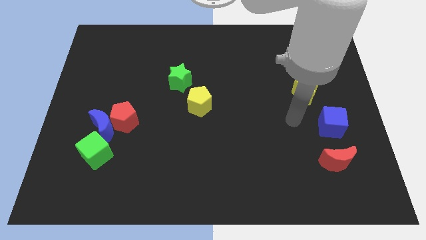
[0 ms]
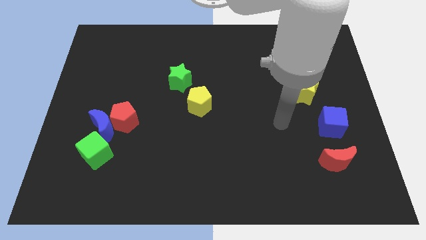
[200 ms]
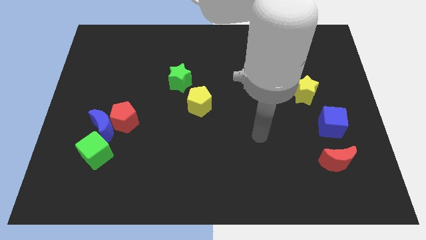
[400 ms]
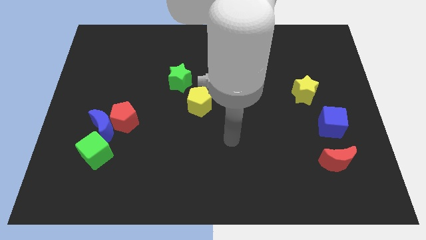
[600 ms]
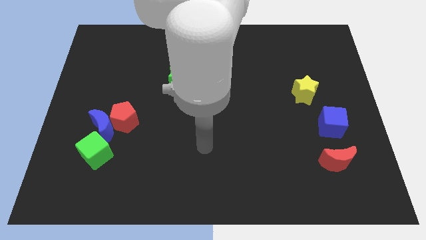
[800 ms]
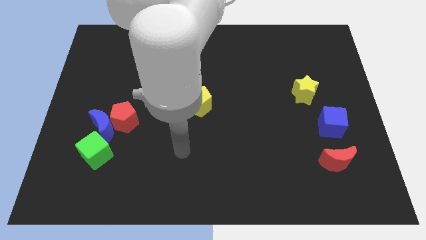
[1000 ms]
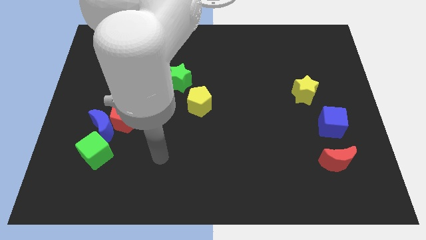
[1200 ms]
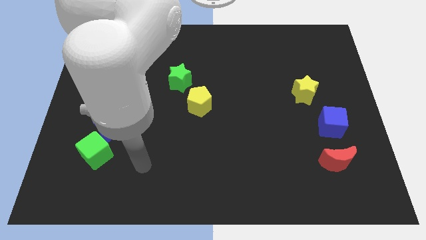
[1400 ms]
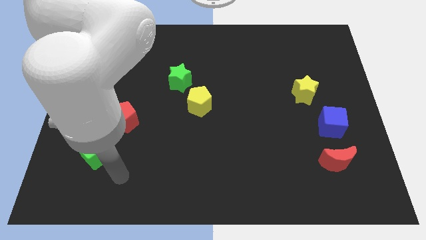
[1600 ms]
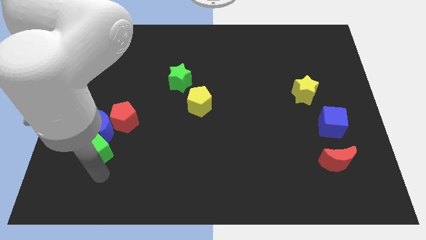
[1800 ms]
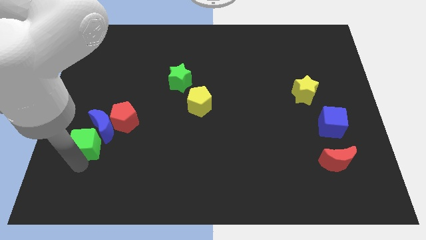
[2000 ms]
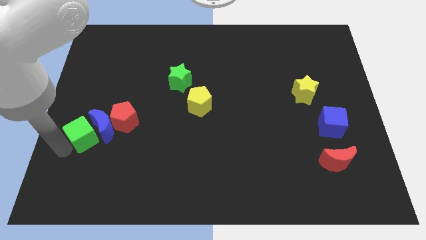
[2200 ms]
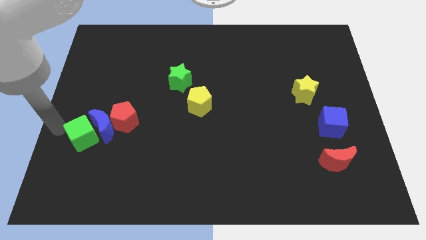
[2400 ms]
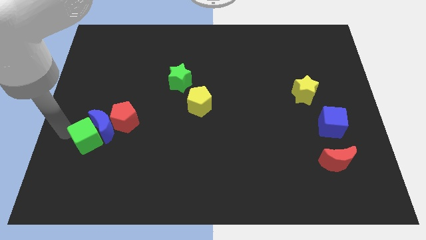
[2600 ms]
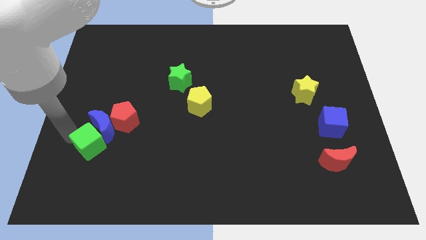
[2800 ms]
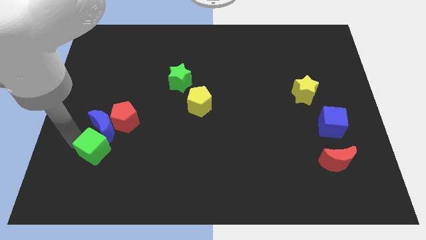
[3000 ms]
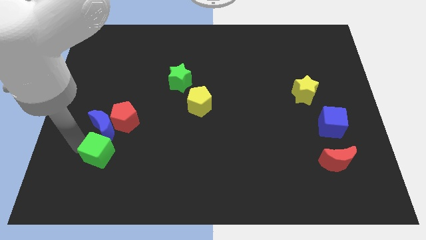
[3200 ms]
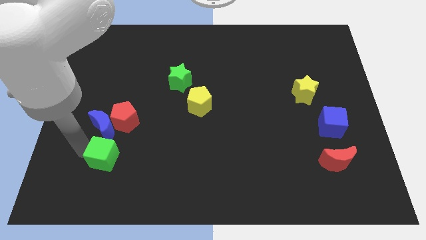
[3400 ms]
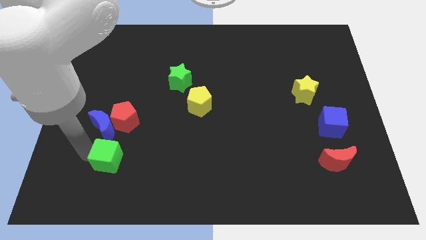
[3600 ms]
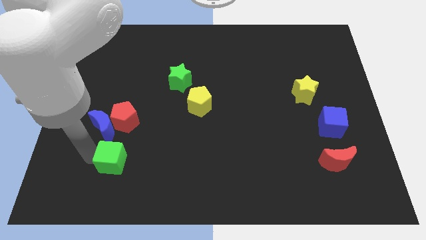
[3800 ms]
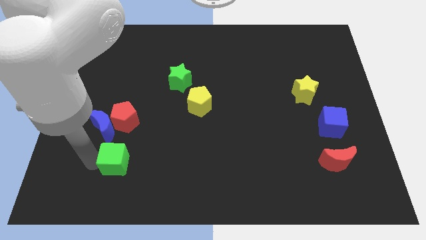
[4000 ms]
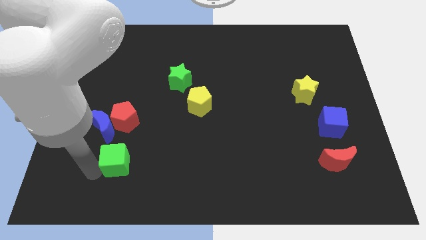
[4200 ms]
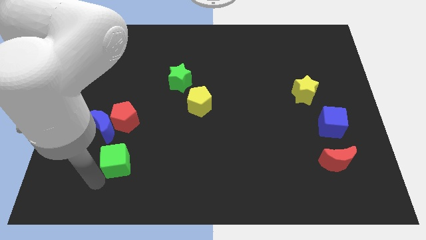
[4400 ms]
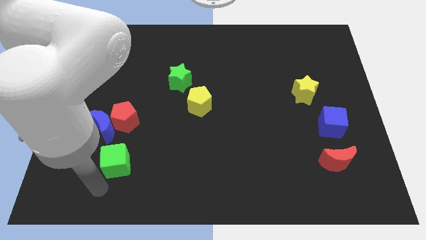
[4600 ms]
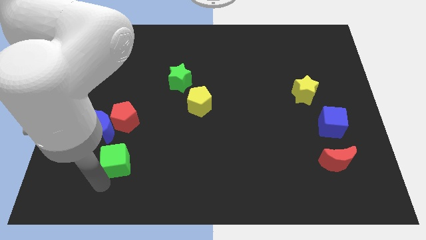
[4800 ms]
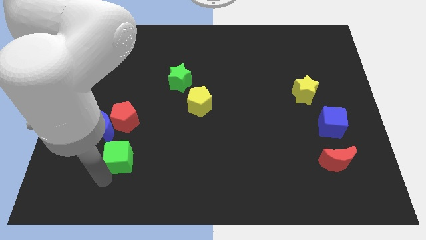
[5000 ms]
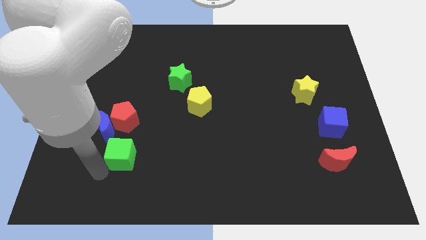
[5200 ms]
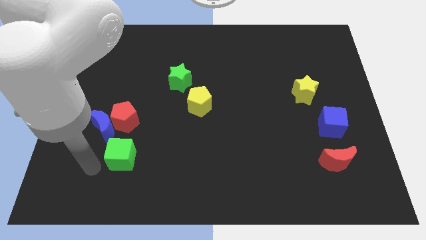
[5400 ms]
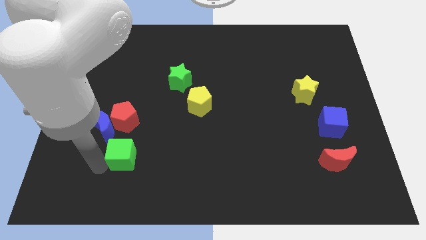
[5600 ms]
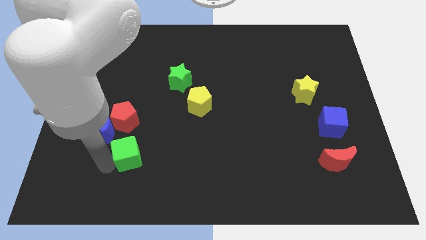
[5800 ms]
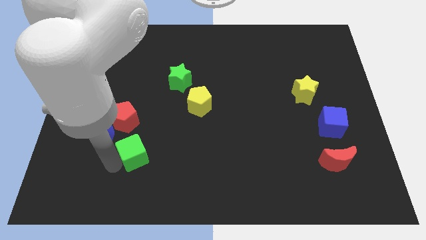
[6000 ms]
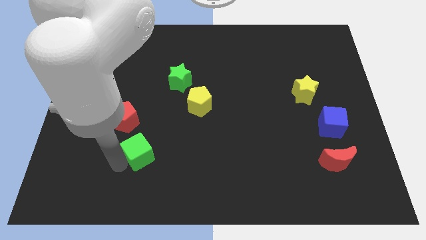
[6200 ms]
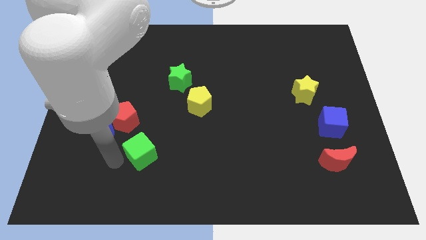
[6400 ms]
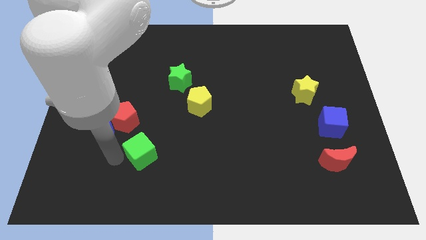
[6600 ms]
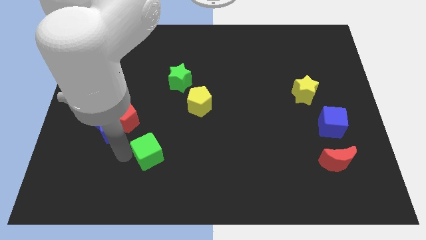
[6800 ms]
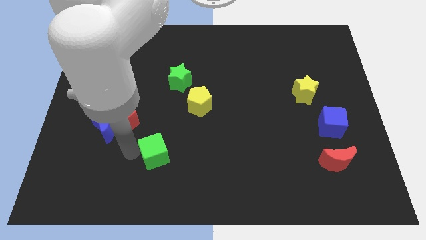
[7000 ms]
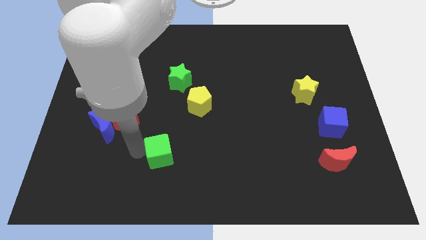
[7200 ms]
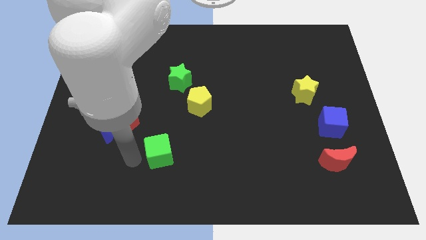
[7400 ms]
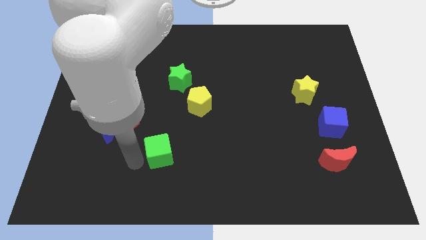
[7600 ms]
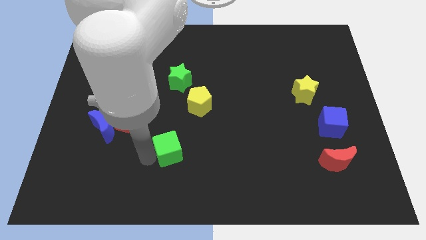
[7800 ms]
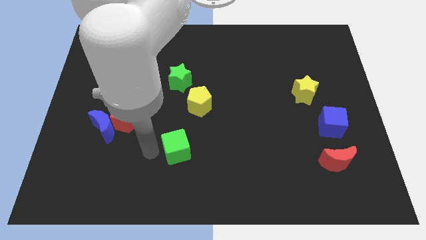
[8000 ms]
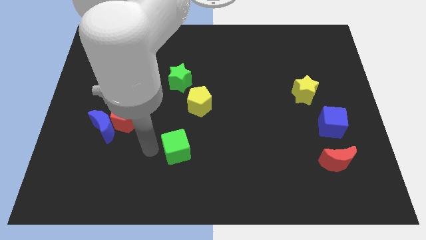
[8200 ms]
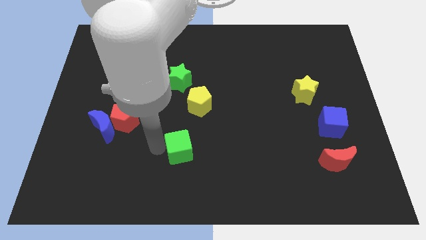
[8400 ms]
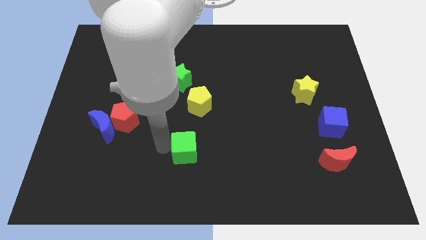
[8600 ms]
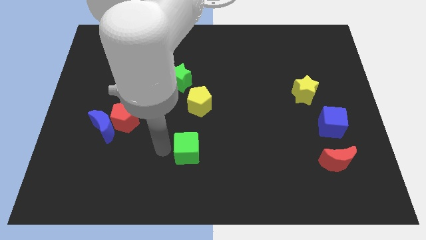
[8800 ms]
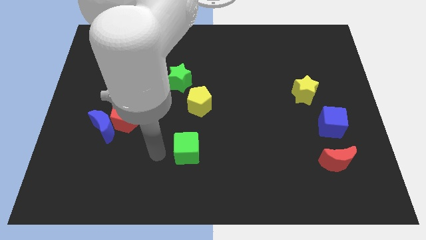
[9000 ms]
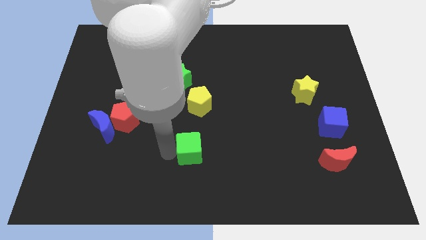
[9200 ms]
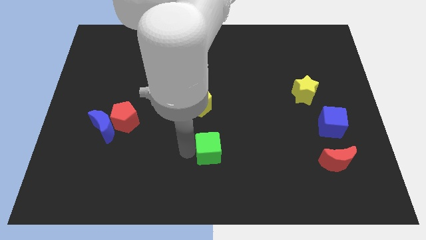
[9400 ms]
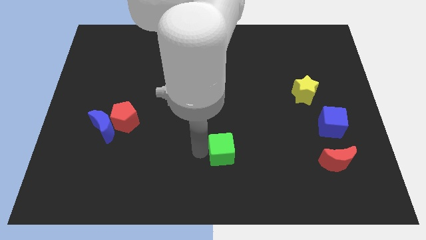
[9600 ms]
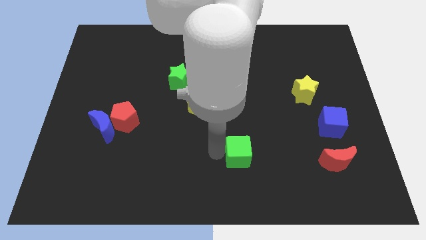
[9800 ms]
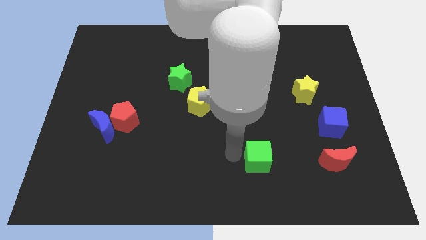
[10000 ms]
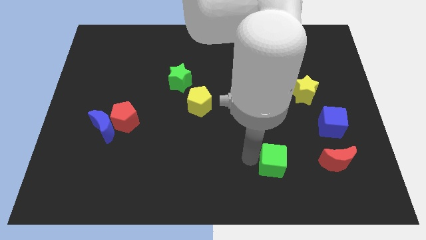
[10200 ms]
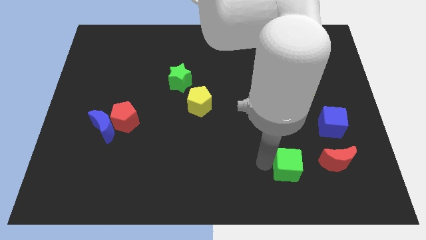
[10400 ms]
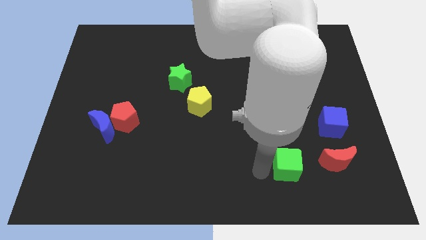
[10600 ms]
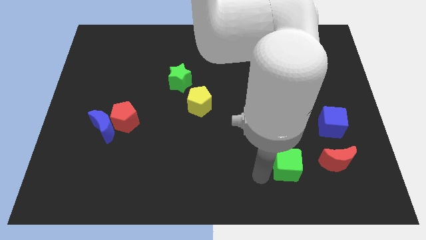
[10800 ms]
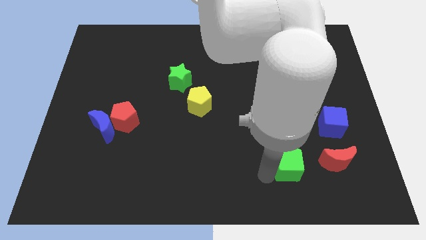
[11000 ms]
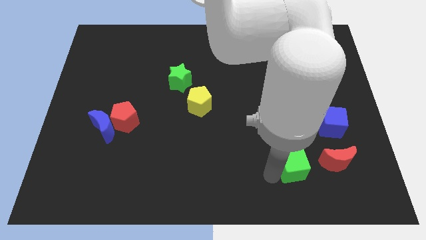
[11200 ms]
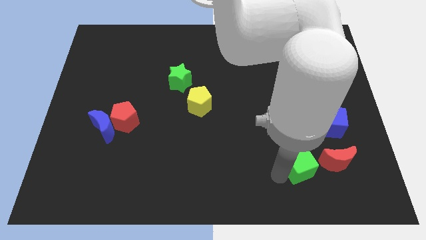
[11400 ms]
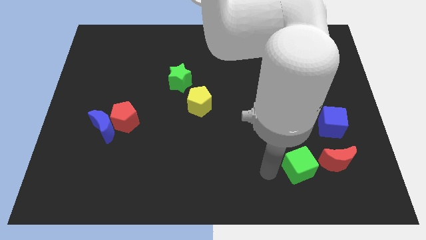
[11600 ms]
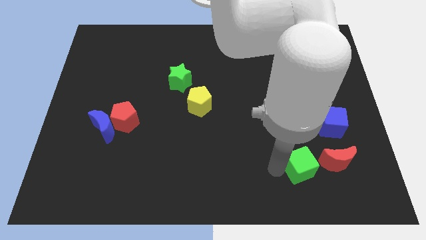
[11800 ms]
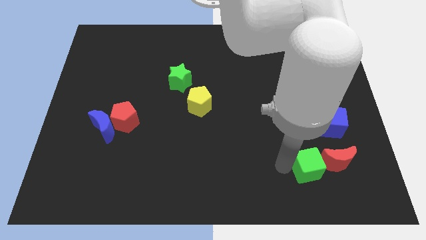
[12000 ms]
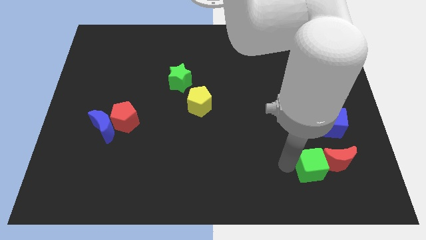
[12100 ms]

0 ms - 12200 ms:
push the green cube to the red moon

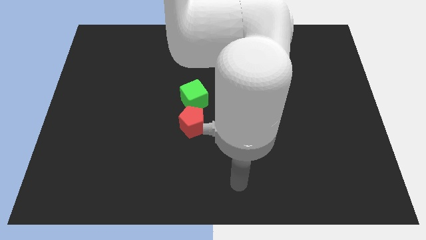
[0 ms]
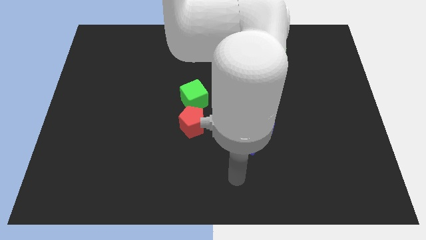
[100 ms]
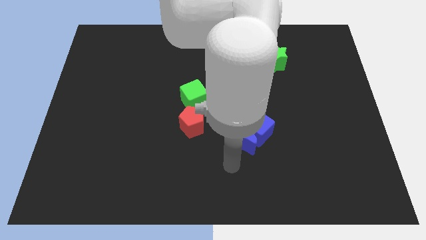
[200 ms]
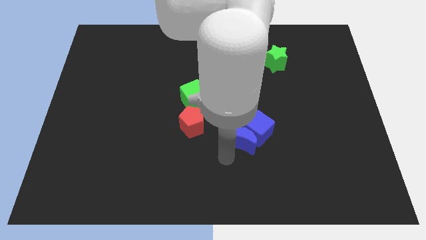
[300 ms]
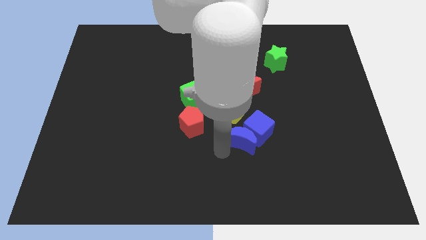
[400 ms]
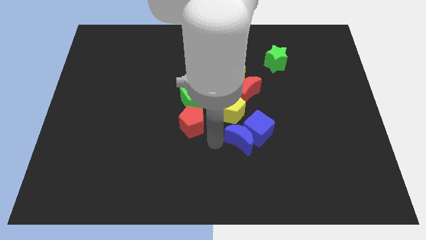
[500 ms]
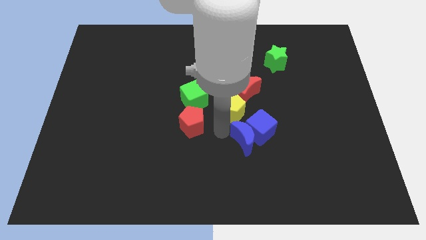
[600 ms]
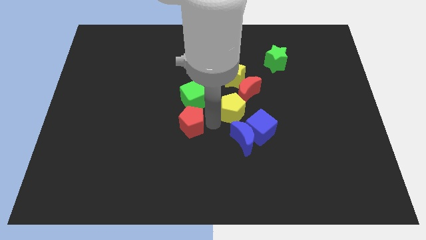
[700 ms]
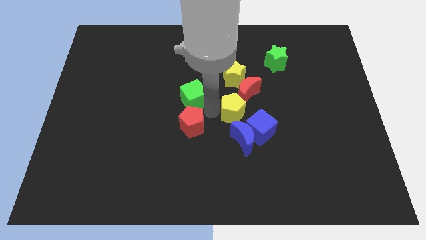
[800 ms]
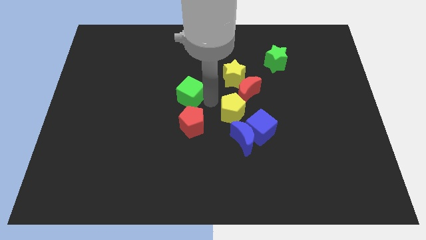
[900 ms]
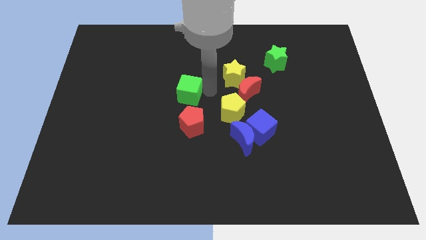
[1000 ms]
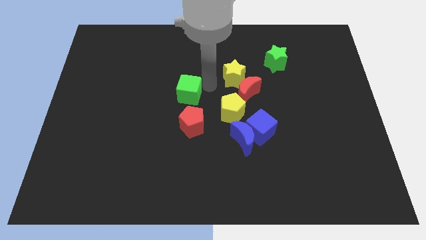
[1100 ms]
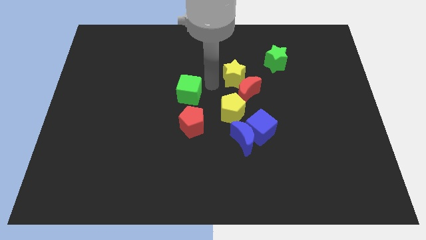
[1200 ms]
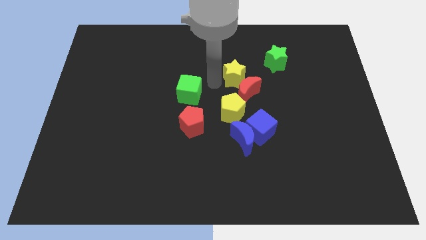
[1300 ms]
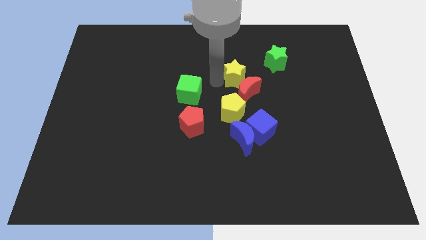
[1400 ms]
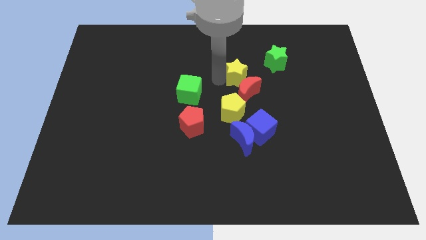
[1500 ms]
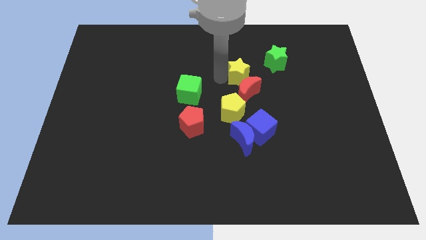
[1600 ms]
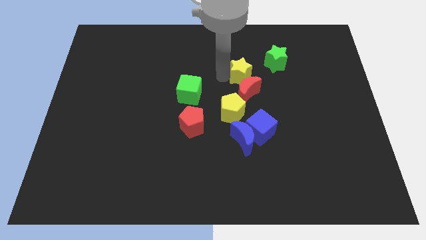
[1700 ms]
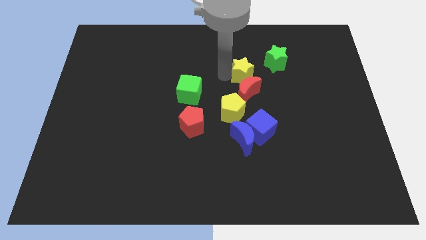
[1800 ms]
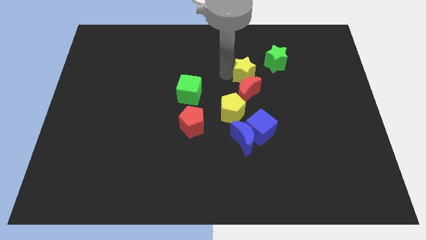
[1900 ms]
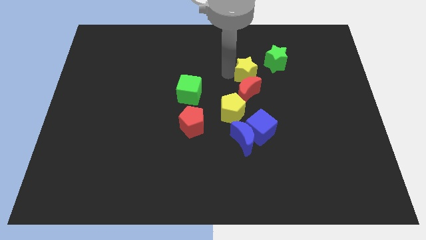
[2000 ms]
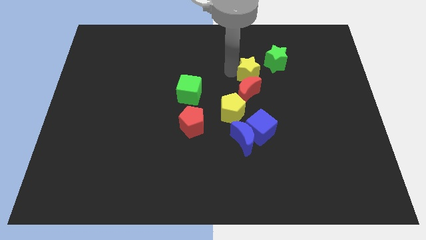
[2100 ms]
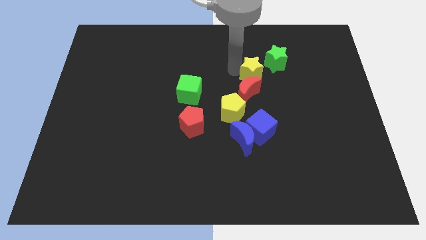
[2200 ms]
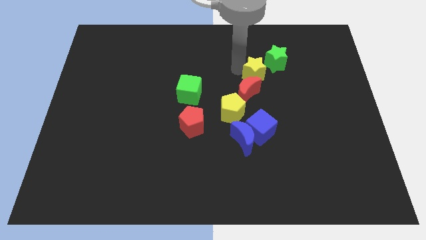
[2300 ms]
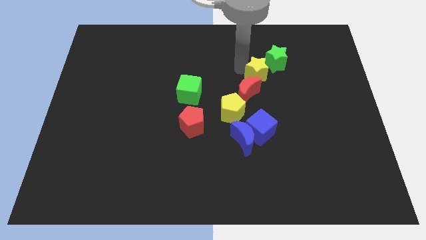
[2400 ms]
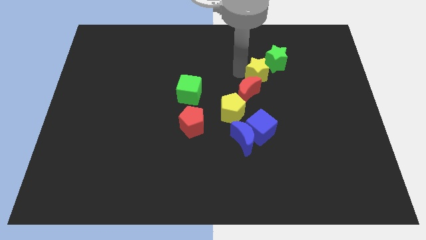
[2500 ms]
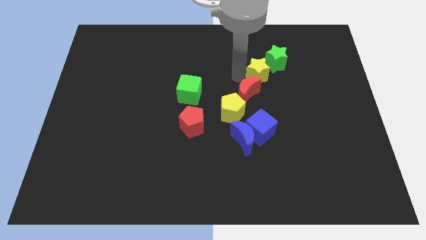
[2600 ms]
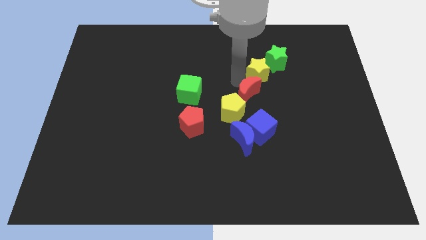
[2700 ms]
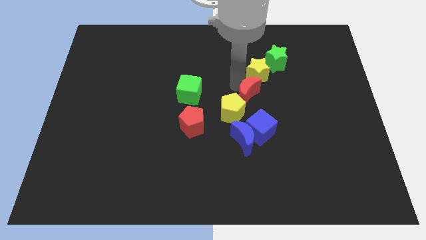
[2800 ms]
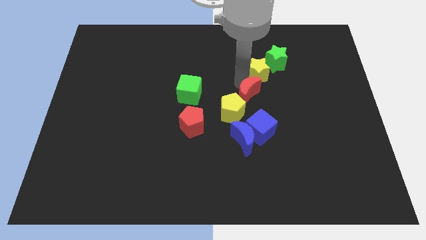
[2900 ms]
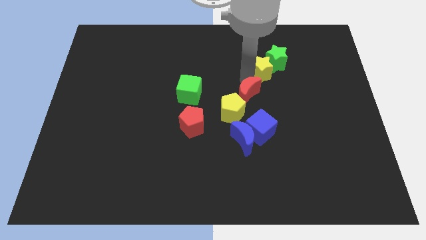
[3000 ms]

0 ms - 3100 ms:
put the yellow star close to the green star
